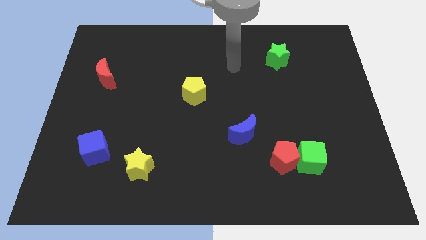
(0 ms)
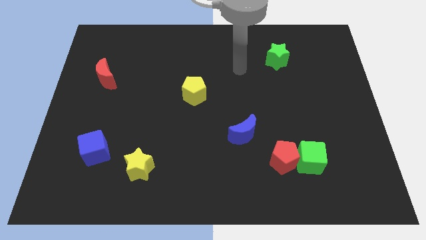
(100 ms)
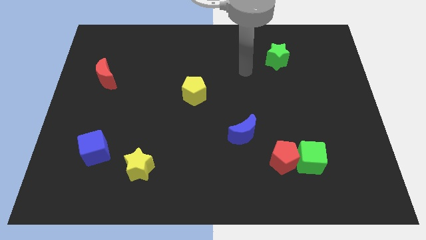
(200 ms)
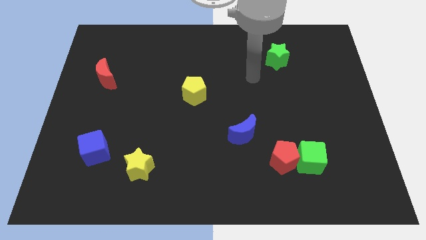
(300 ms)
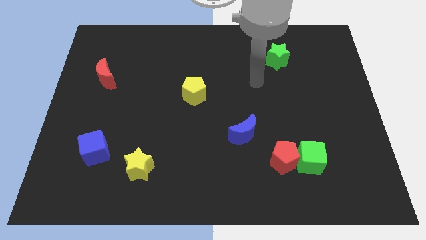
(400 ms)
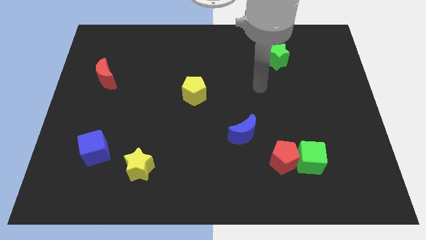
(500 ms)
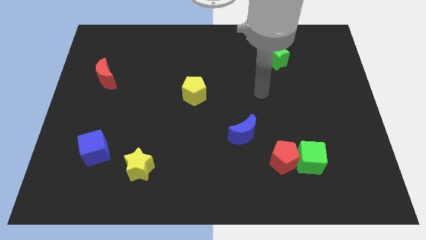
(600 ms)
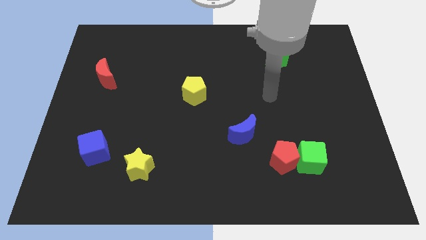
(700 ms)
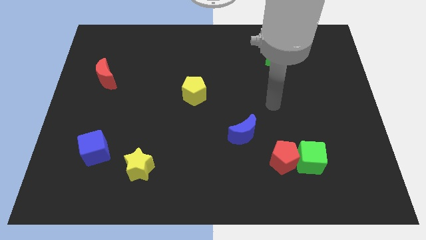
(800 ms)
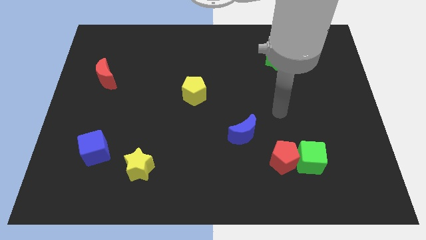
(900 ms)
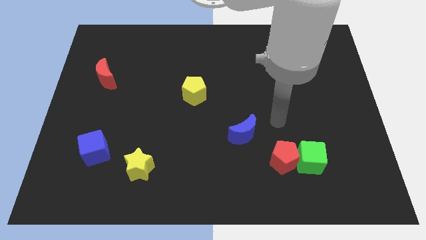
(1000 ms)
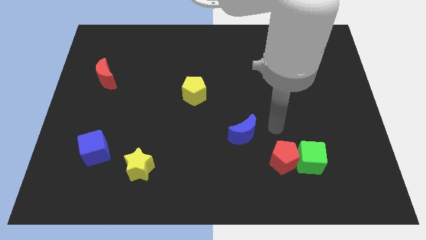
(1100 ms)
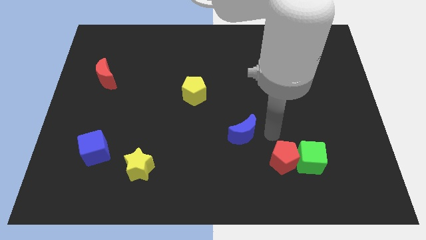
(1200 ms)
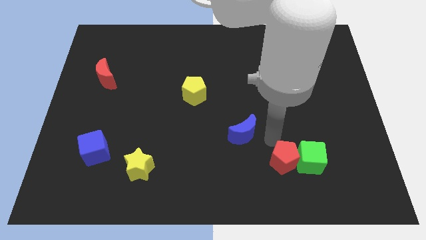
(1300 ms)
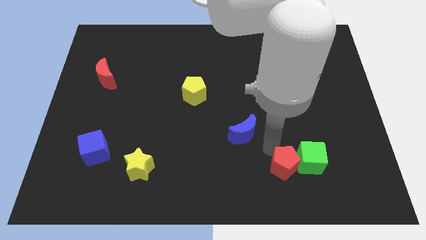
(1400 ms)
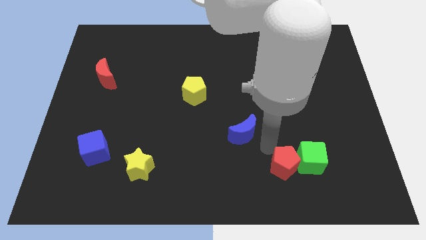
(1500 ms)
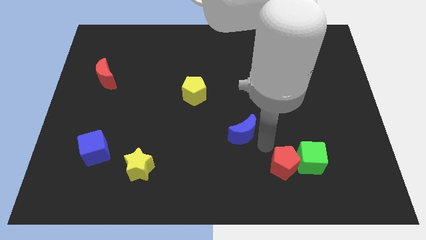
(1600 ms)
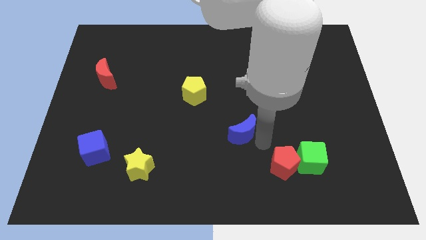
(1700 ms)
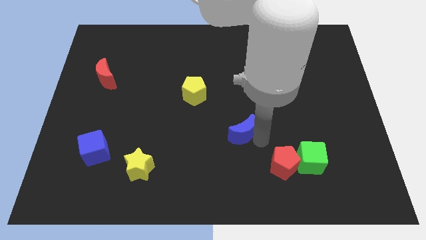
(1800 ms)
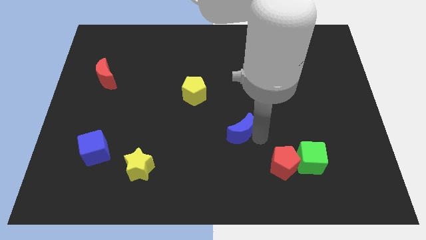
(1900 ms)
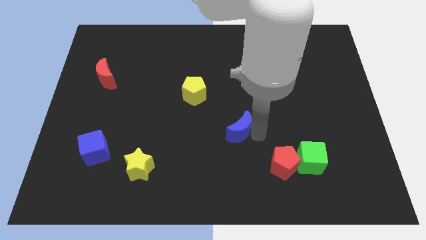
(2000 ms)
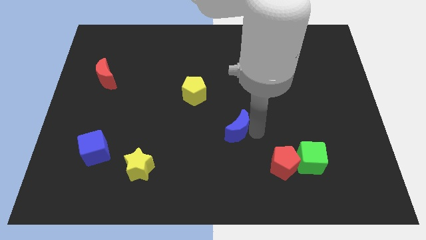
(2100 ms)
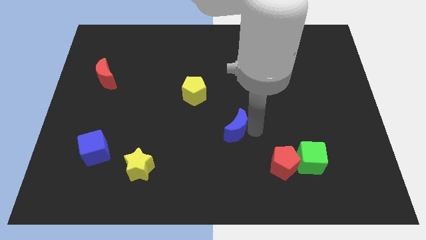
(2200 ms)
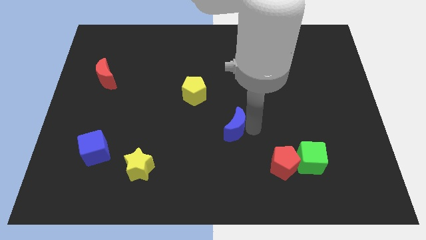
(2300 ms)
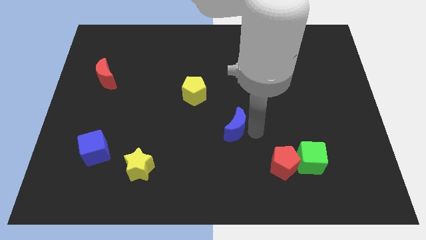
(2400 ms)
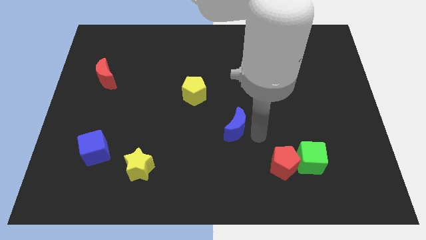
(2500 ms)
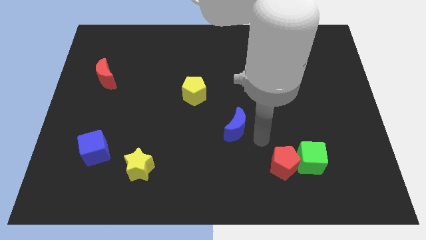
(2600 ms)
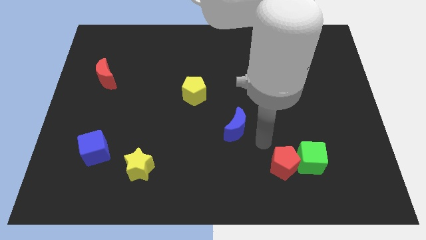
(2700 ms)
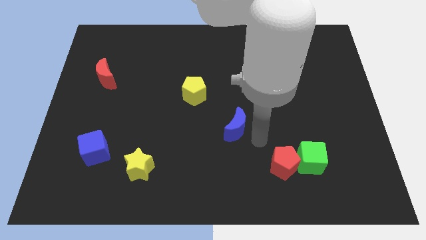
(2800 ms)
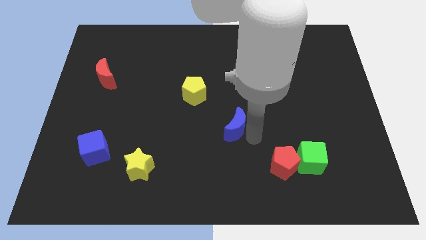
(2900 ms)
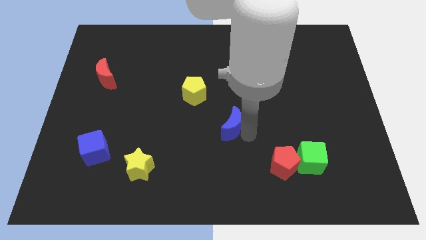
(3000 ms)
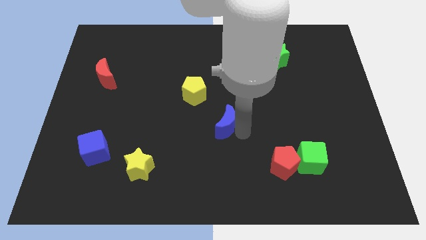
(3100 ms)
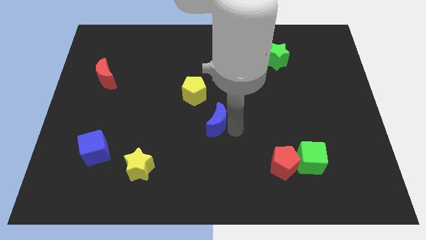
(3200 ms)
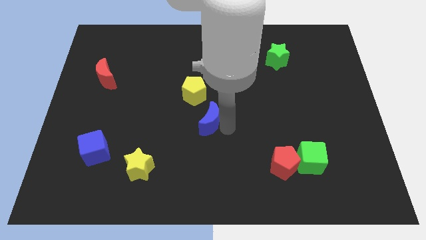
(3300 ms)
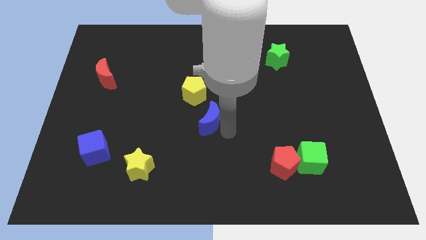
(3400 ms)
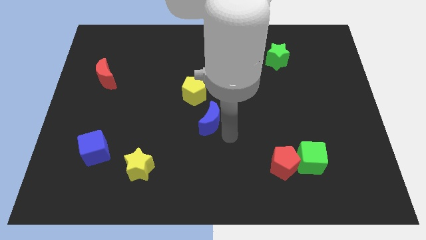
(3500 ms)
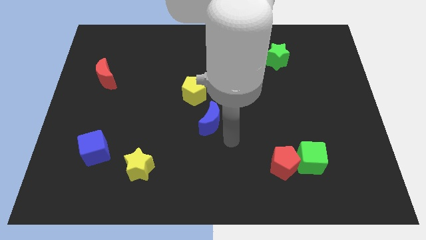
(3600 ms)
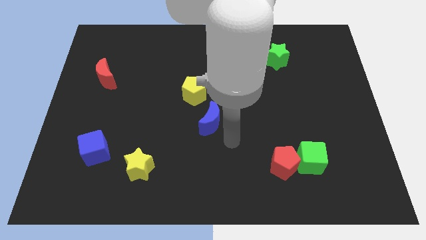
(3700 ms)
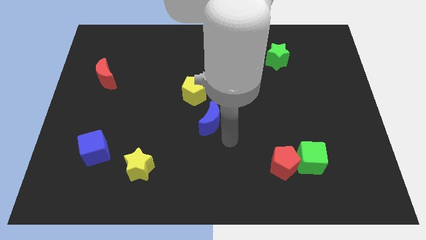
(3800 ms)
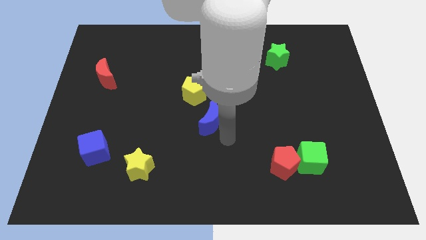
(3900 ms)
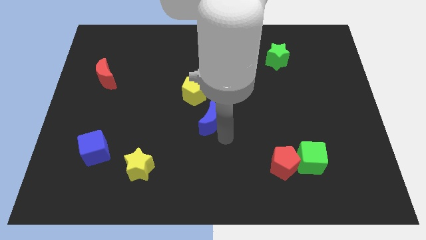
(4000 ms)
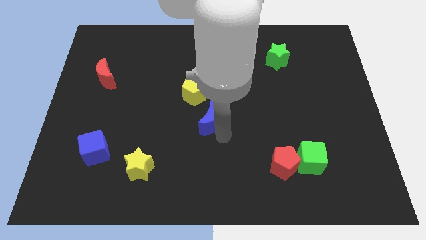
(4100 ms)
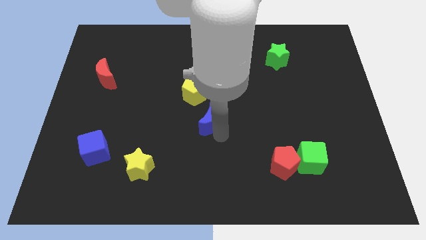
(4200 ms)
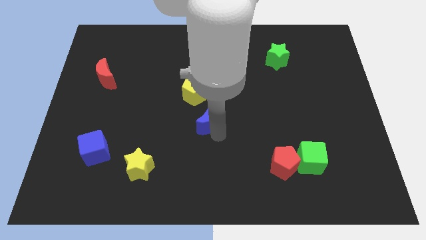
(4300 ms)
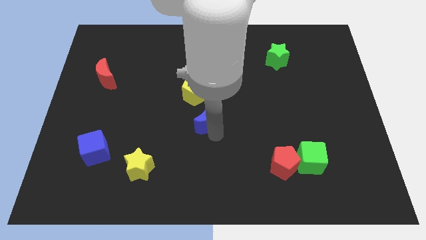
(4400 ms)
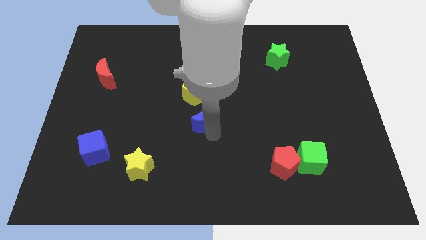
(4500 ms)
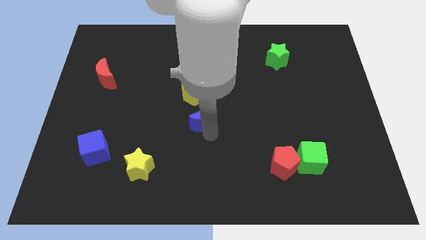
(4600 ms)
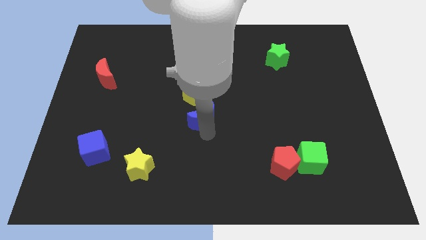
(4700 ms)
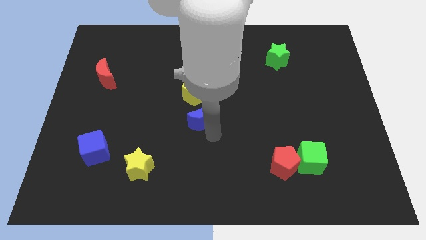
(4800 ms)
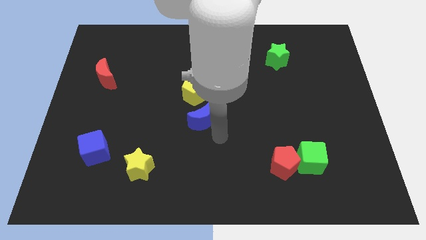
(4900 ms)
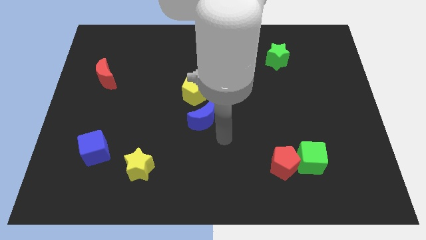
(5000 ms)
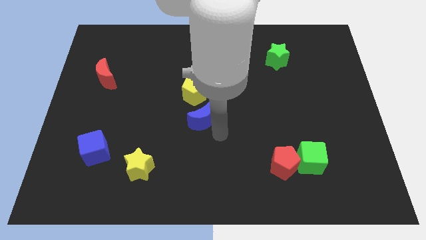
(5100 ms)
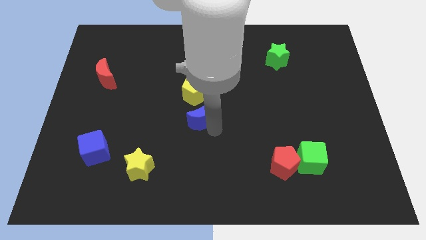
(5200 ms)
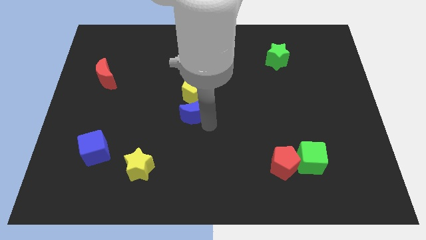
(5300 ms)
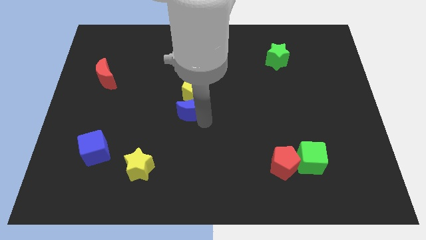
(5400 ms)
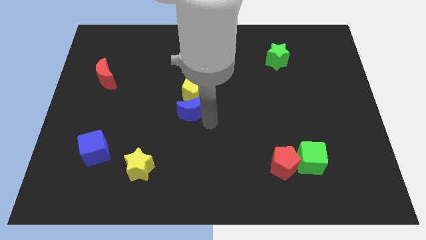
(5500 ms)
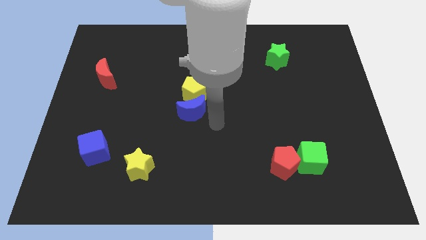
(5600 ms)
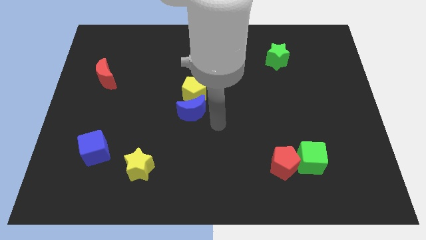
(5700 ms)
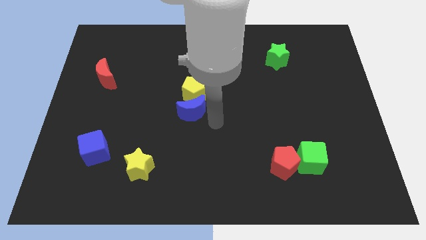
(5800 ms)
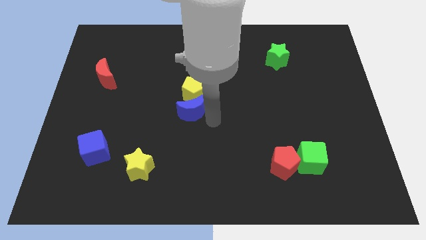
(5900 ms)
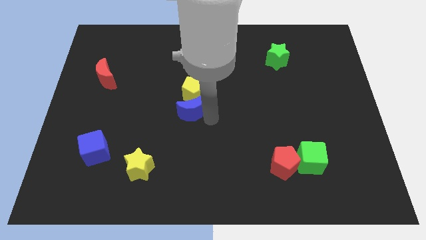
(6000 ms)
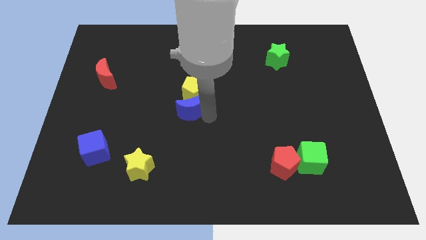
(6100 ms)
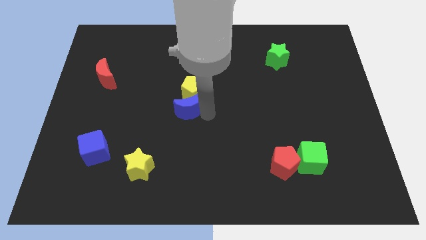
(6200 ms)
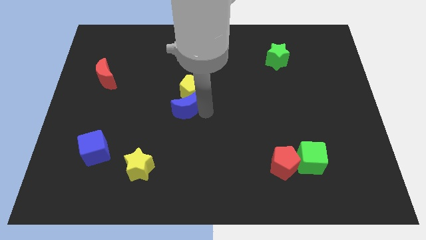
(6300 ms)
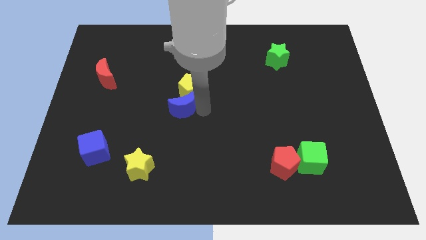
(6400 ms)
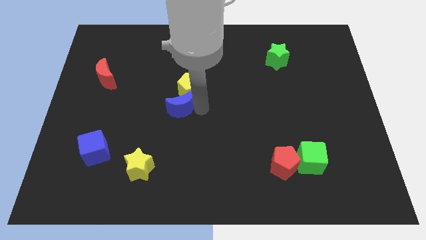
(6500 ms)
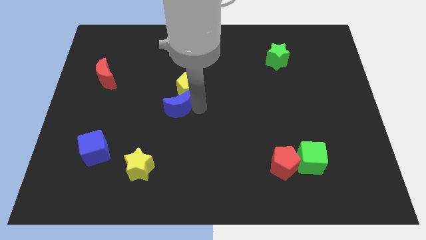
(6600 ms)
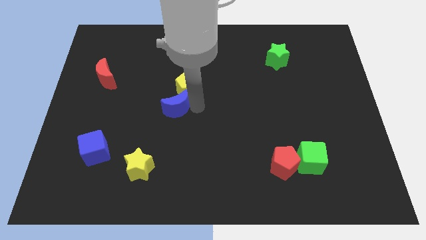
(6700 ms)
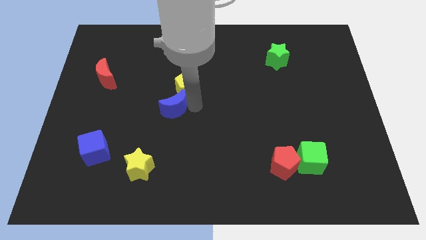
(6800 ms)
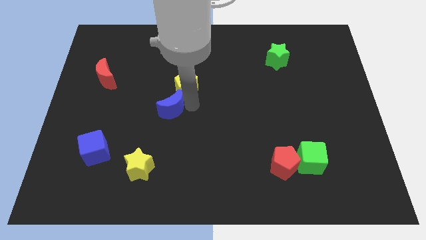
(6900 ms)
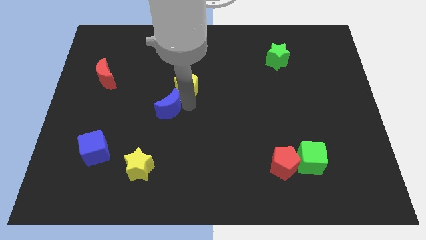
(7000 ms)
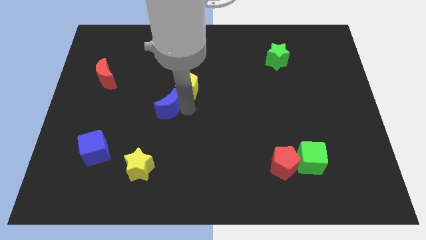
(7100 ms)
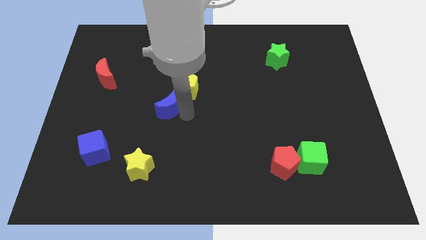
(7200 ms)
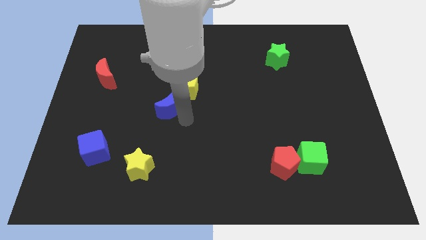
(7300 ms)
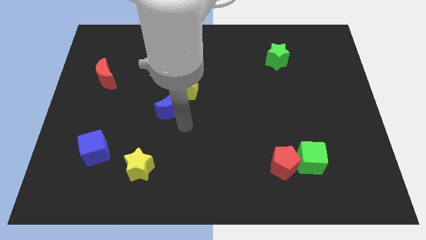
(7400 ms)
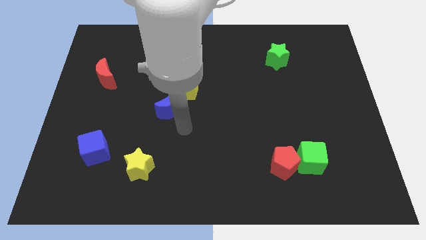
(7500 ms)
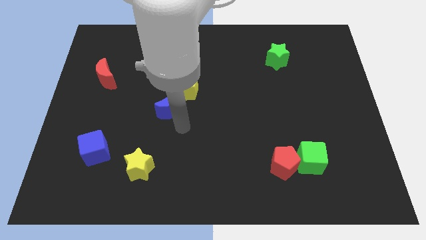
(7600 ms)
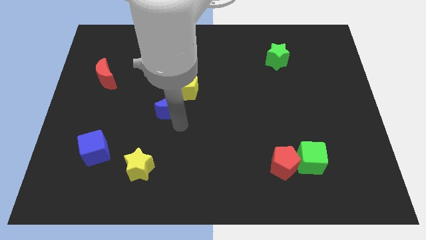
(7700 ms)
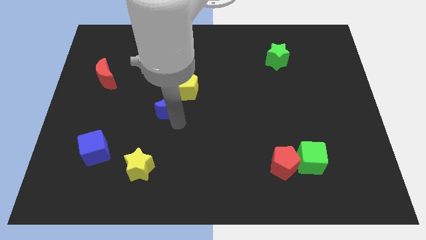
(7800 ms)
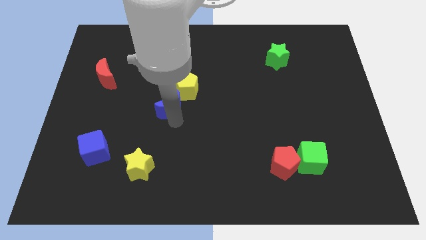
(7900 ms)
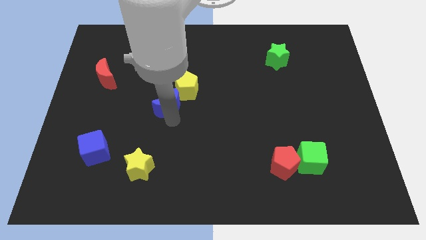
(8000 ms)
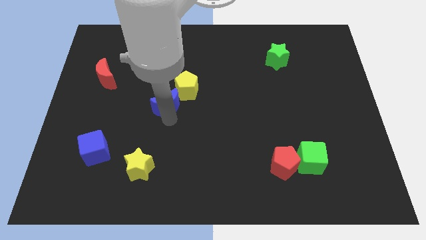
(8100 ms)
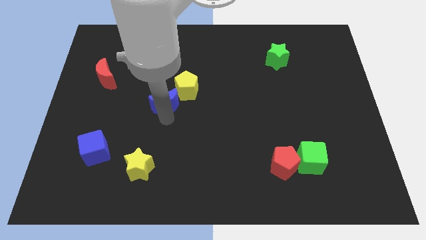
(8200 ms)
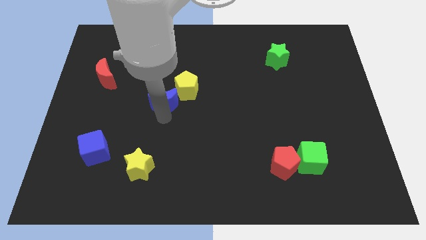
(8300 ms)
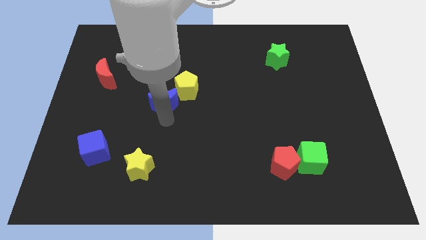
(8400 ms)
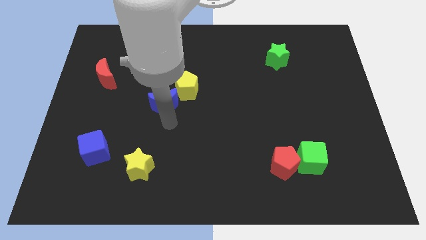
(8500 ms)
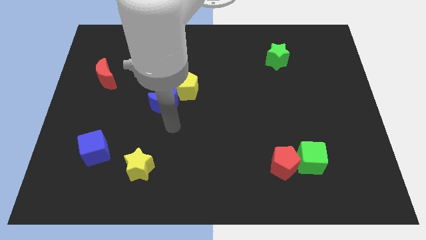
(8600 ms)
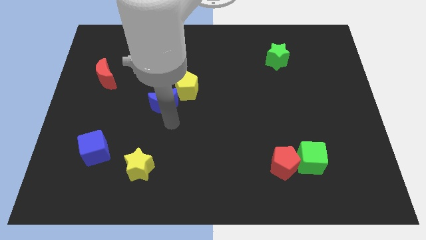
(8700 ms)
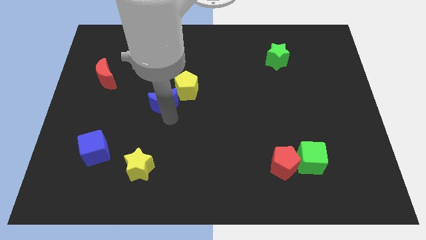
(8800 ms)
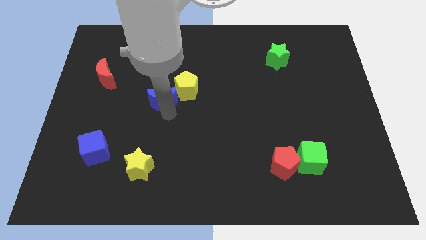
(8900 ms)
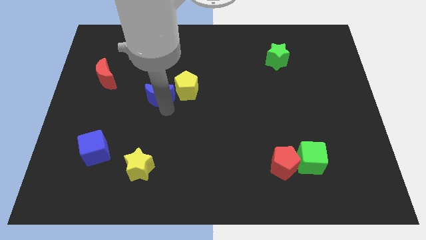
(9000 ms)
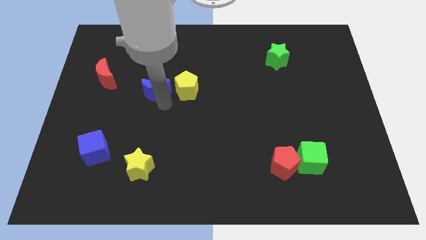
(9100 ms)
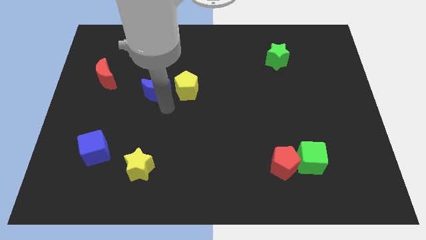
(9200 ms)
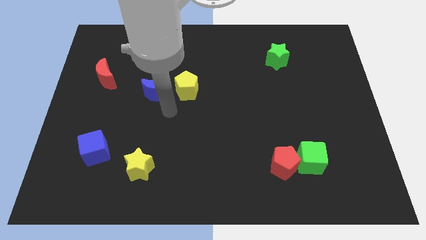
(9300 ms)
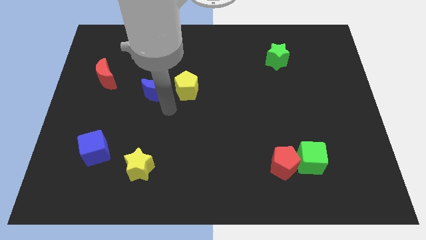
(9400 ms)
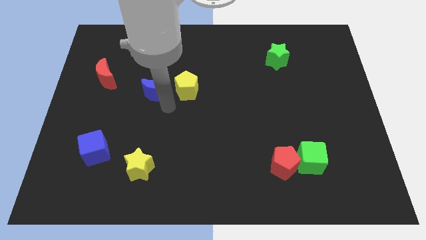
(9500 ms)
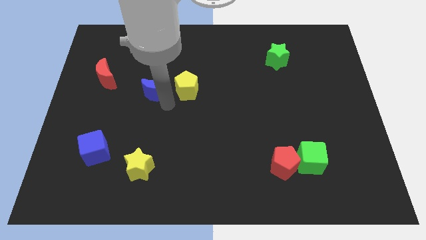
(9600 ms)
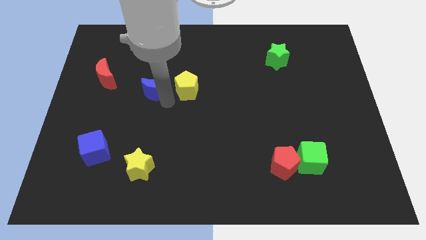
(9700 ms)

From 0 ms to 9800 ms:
slide the blue moon to the right side of the red moon
